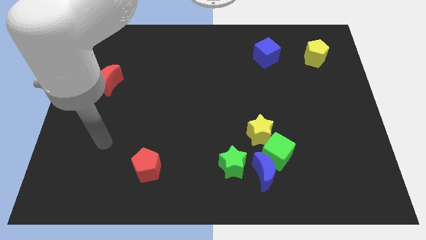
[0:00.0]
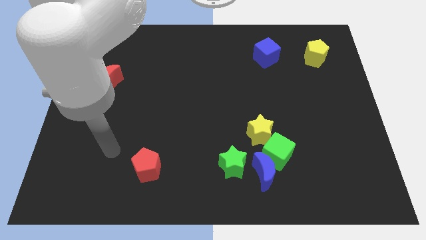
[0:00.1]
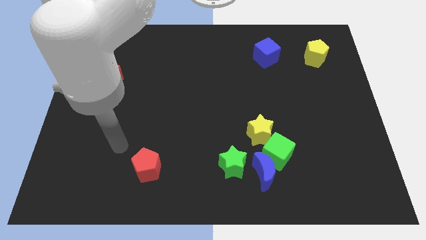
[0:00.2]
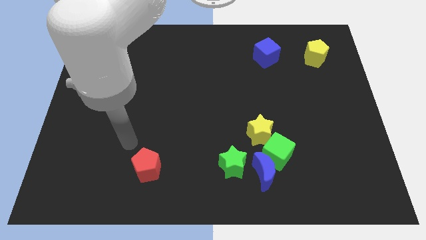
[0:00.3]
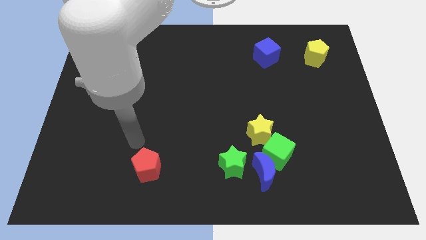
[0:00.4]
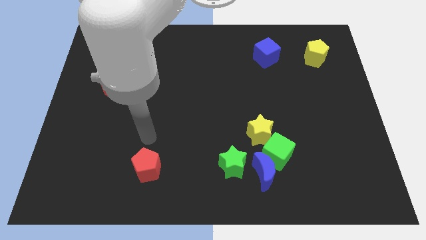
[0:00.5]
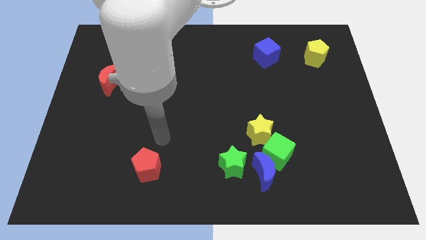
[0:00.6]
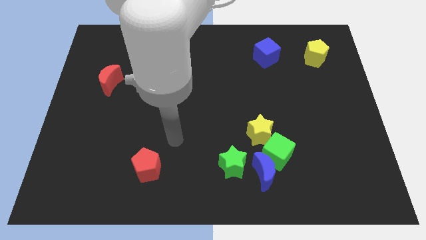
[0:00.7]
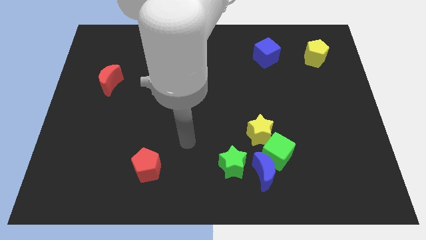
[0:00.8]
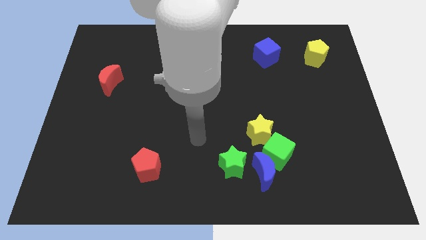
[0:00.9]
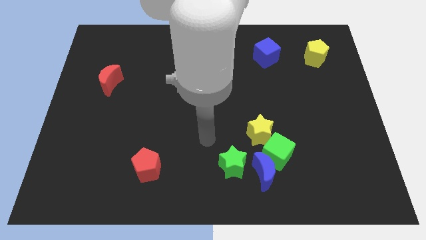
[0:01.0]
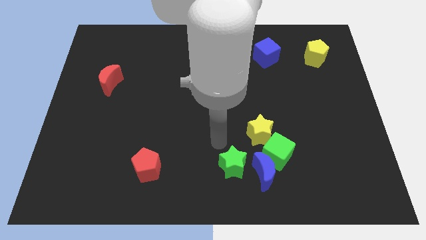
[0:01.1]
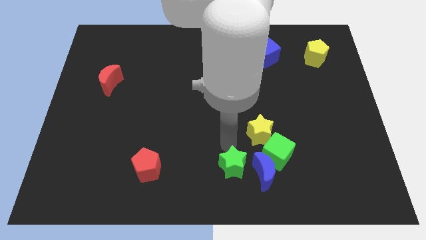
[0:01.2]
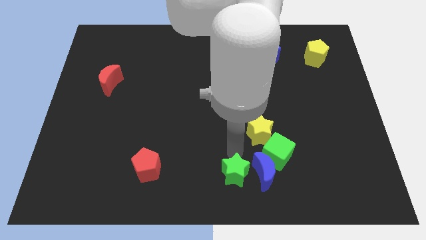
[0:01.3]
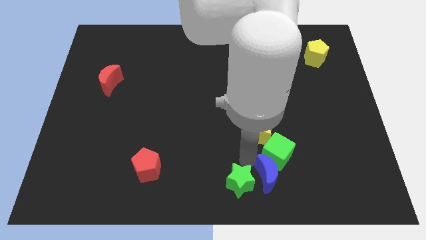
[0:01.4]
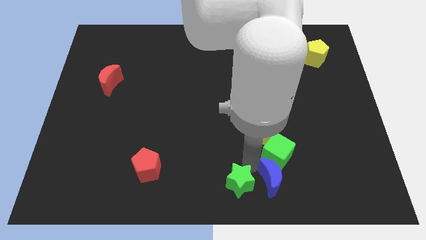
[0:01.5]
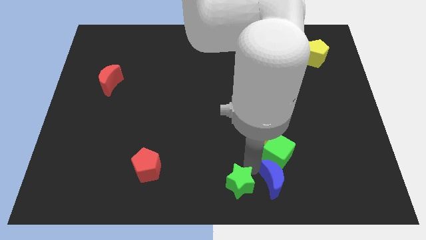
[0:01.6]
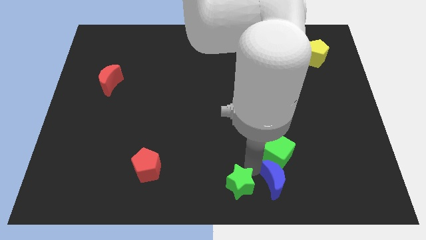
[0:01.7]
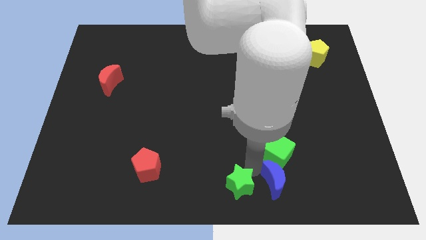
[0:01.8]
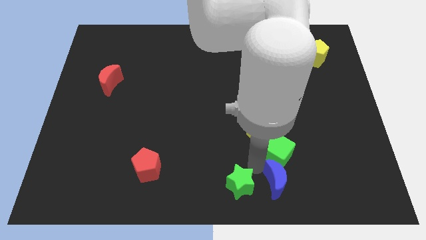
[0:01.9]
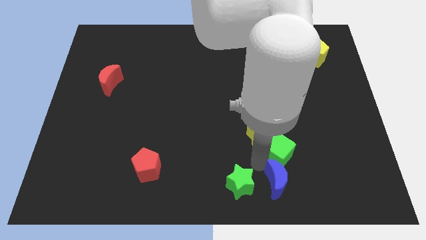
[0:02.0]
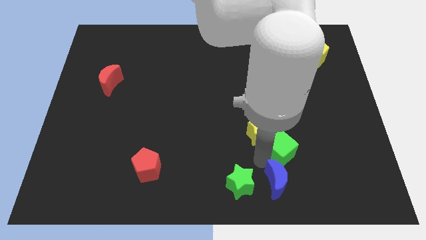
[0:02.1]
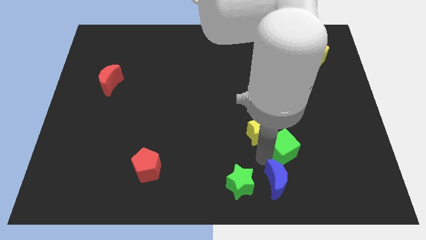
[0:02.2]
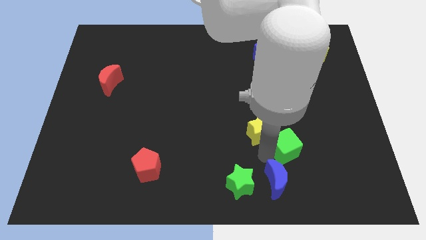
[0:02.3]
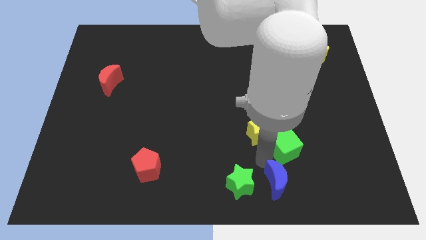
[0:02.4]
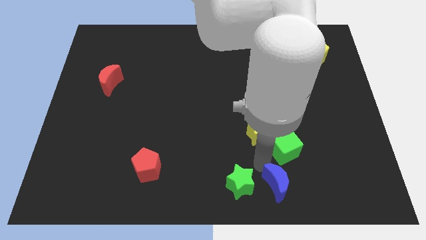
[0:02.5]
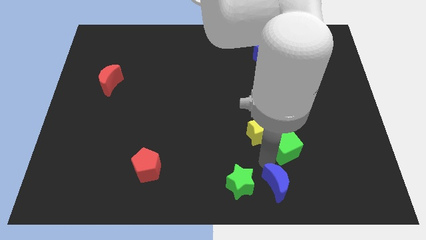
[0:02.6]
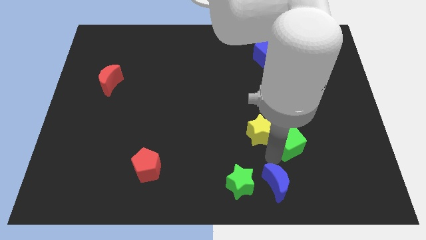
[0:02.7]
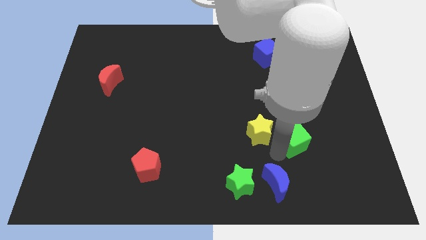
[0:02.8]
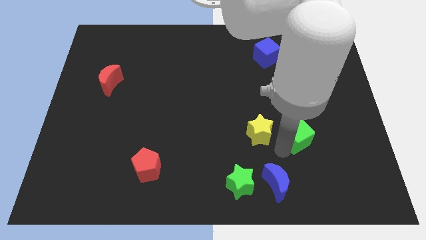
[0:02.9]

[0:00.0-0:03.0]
separate the green cube from the blue moon, yellow star, and green star

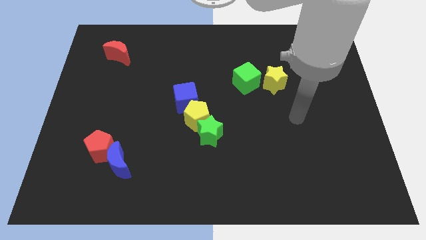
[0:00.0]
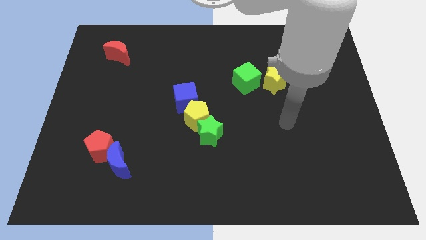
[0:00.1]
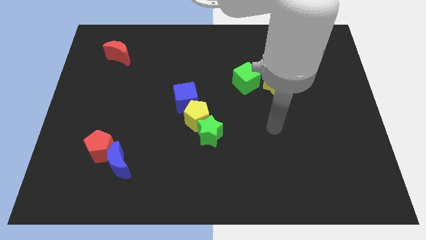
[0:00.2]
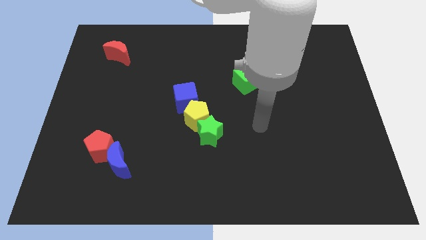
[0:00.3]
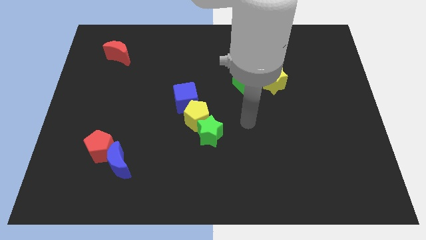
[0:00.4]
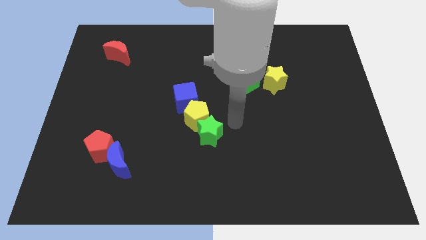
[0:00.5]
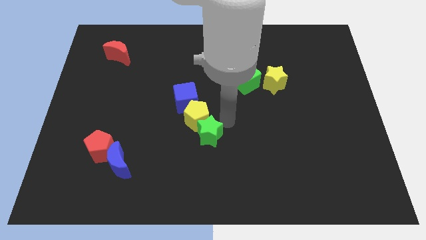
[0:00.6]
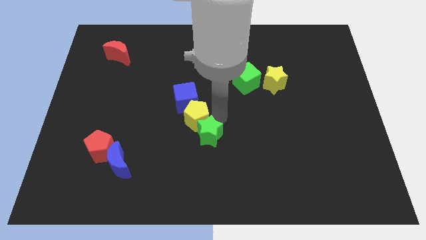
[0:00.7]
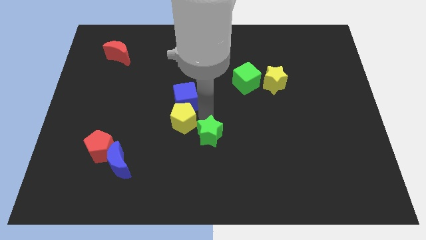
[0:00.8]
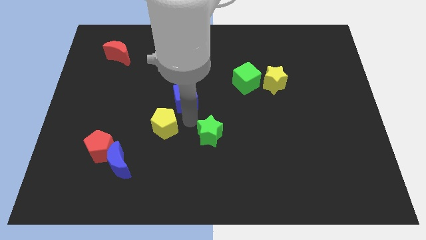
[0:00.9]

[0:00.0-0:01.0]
pull the green star apart from the yellow pentagon

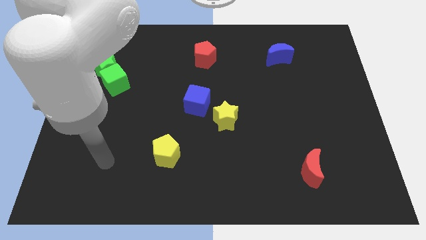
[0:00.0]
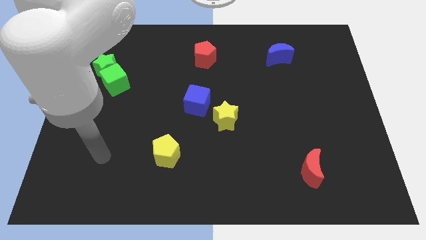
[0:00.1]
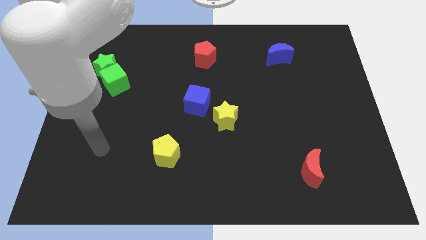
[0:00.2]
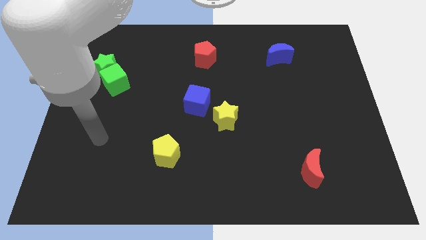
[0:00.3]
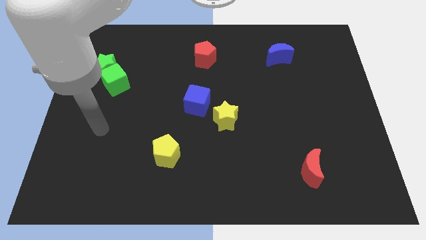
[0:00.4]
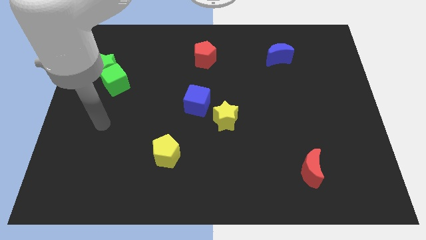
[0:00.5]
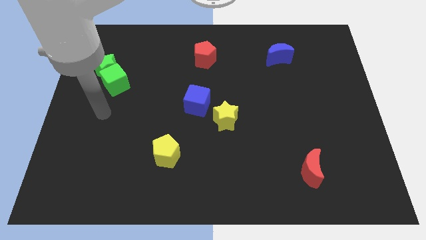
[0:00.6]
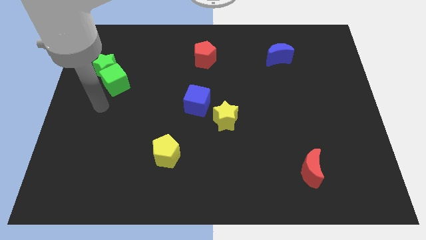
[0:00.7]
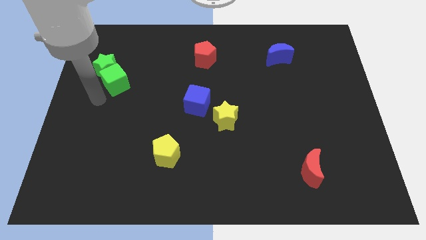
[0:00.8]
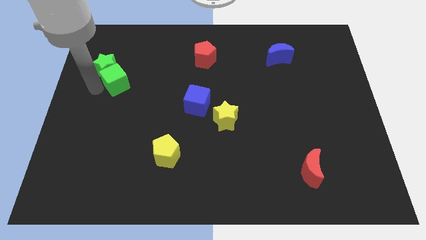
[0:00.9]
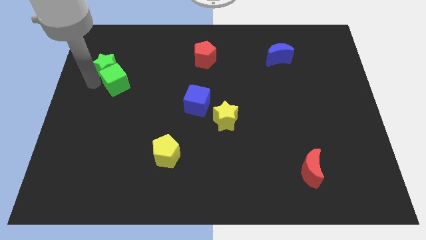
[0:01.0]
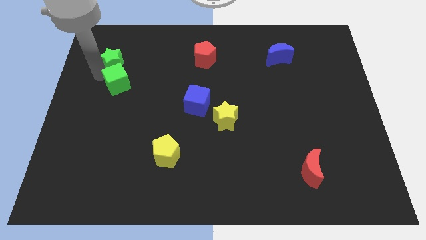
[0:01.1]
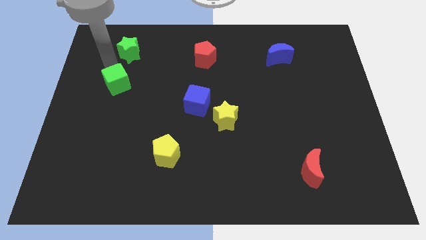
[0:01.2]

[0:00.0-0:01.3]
separate the green cube from the green star

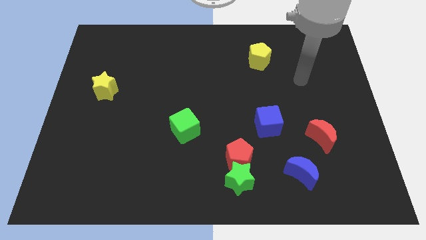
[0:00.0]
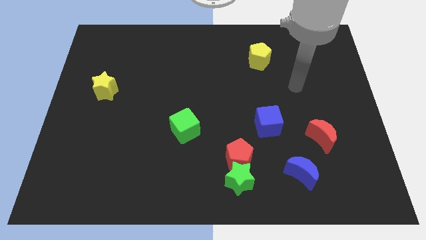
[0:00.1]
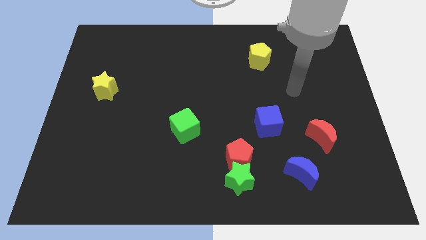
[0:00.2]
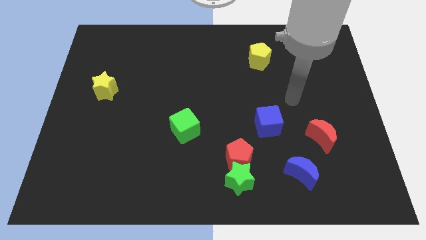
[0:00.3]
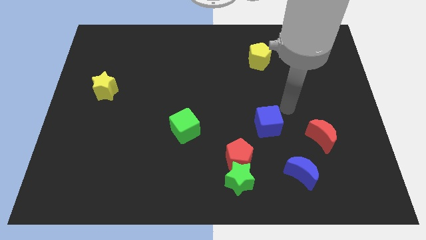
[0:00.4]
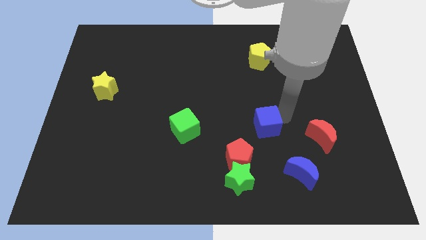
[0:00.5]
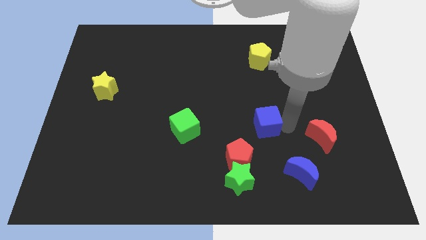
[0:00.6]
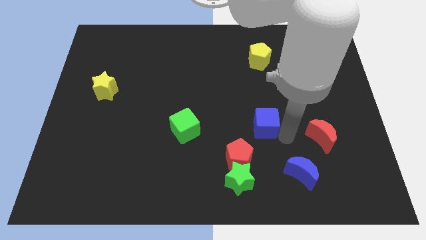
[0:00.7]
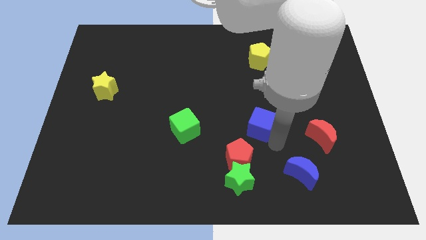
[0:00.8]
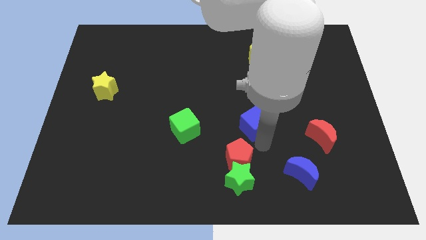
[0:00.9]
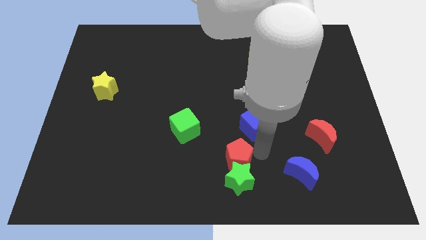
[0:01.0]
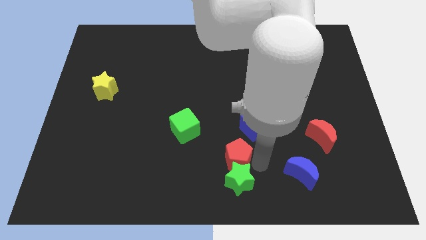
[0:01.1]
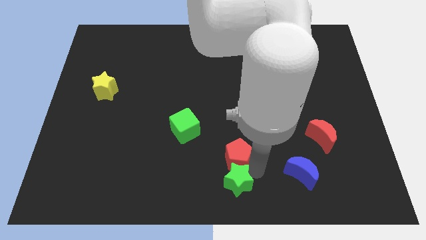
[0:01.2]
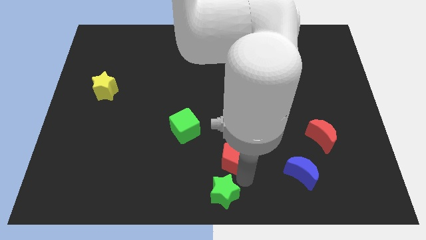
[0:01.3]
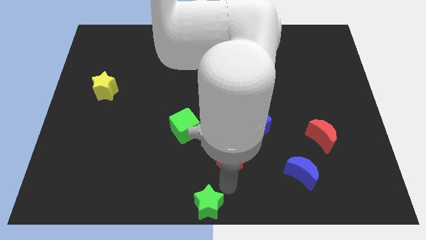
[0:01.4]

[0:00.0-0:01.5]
separate the red pentagon from the green star

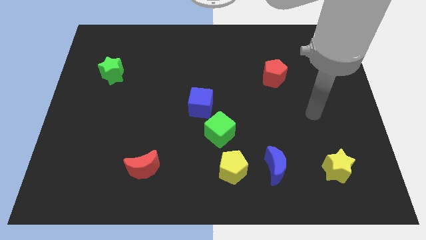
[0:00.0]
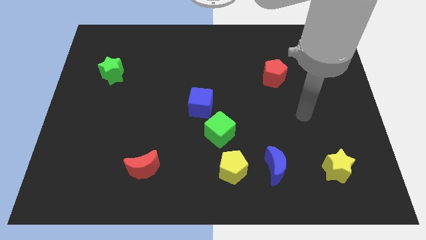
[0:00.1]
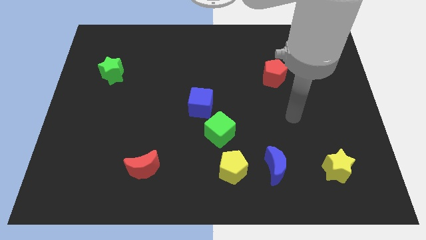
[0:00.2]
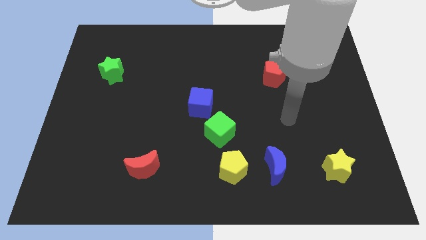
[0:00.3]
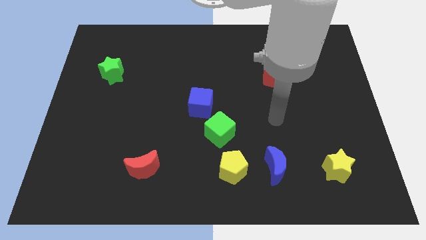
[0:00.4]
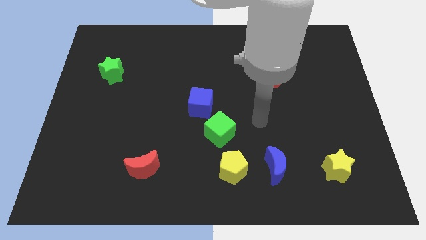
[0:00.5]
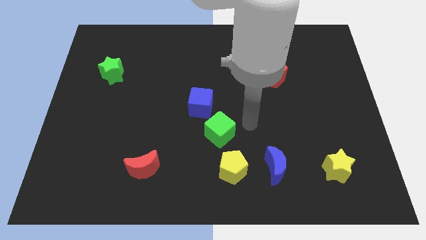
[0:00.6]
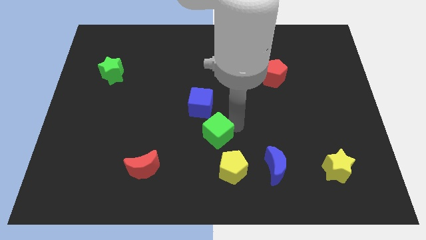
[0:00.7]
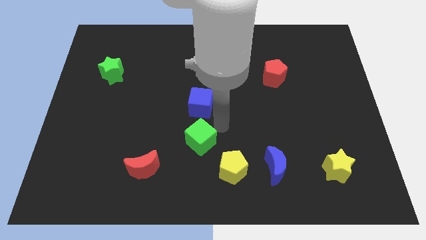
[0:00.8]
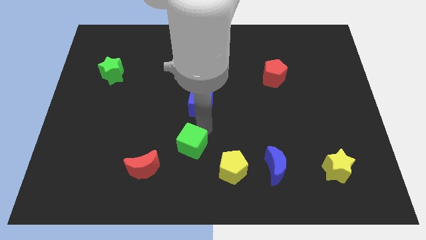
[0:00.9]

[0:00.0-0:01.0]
move the blue cube away from the green cube

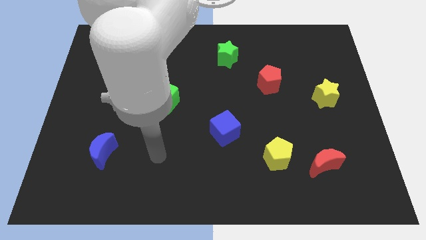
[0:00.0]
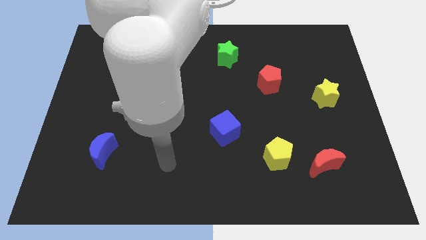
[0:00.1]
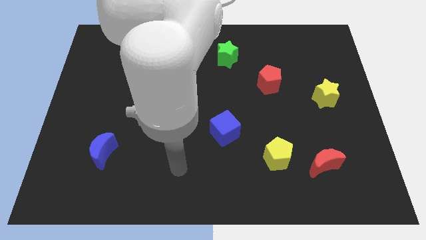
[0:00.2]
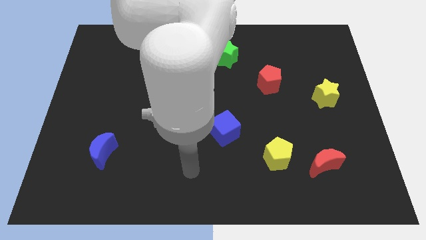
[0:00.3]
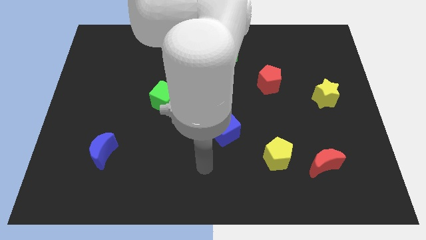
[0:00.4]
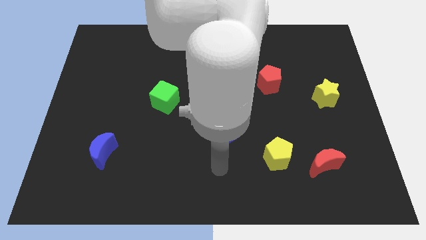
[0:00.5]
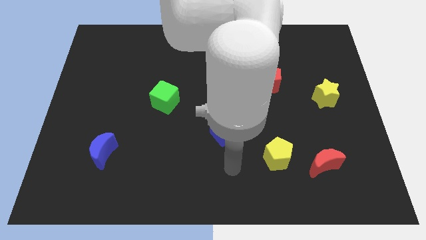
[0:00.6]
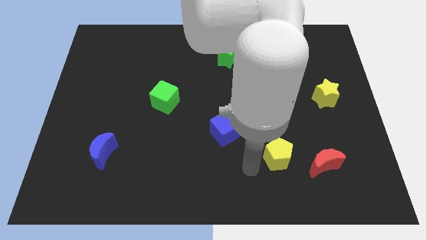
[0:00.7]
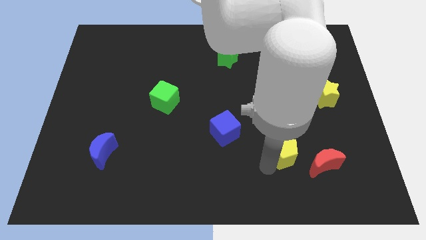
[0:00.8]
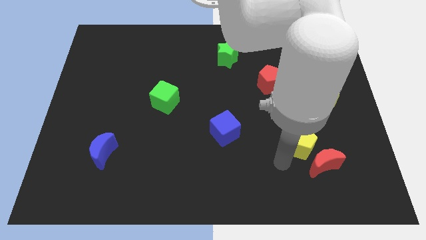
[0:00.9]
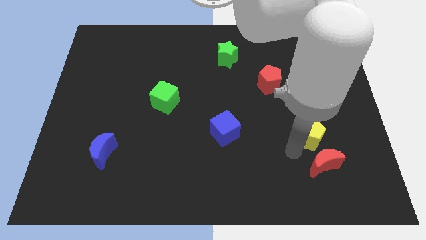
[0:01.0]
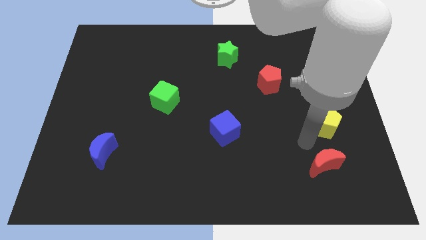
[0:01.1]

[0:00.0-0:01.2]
separate the red moon from the yellow pentagon

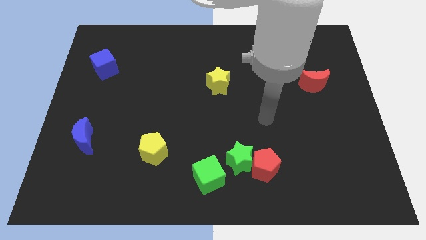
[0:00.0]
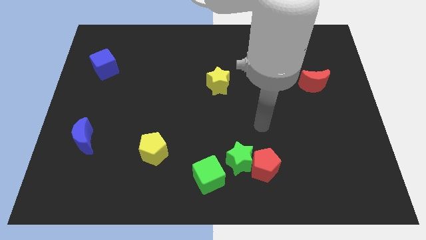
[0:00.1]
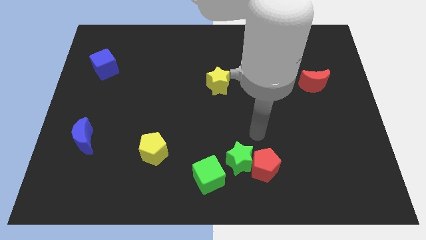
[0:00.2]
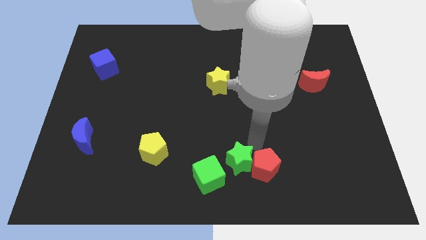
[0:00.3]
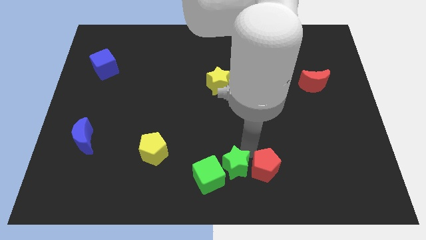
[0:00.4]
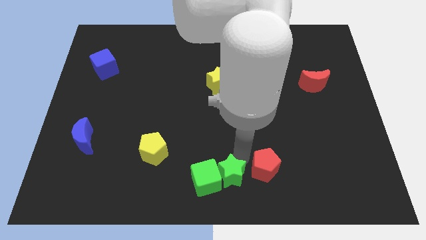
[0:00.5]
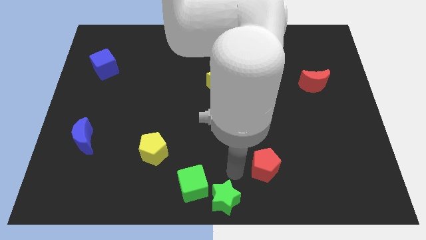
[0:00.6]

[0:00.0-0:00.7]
pull the red pentagon apart from the green star
